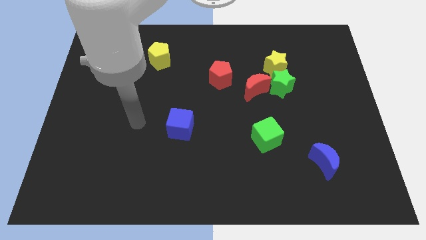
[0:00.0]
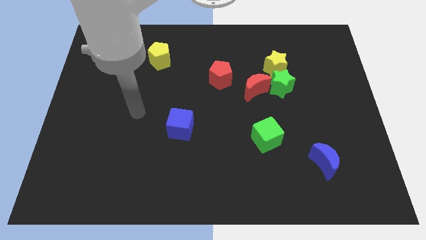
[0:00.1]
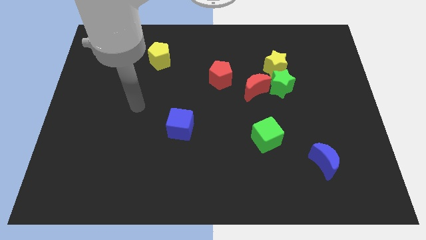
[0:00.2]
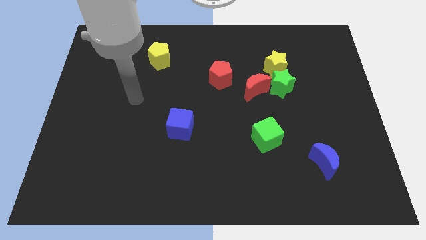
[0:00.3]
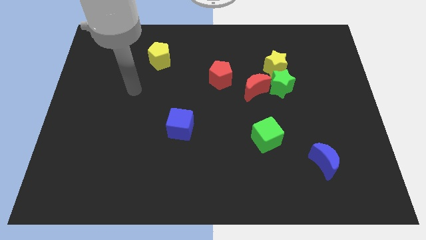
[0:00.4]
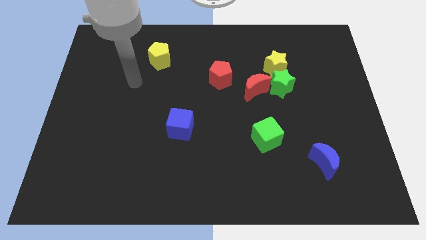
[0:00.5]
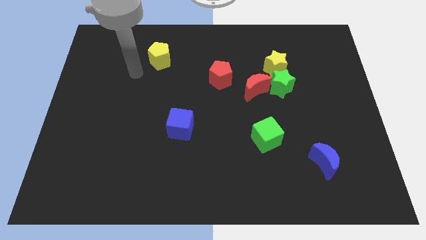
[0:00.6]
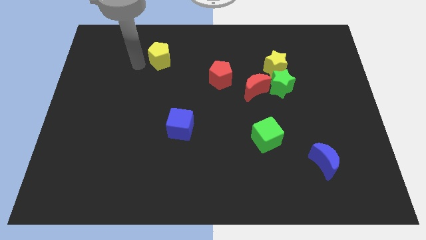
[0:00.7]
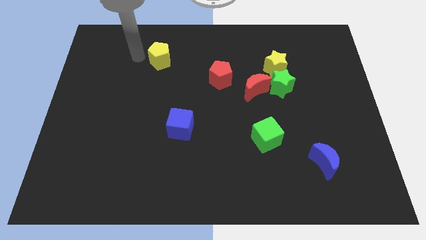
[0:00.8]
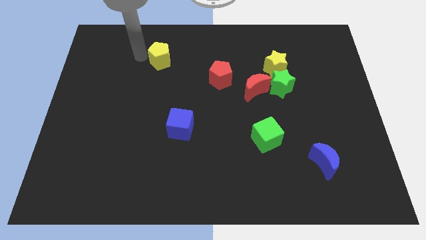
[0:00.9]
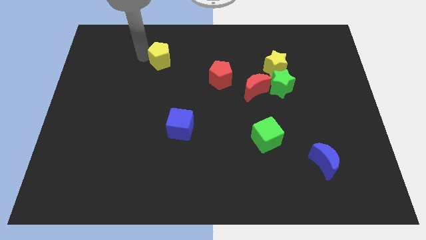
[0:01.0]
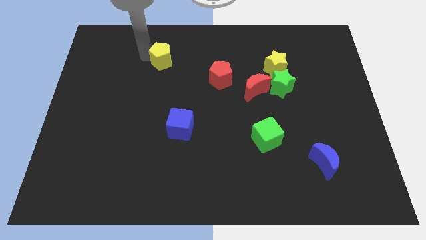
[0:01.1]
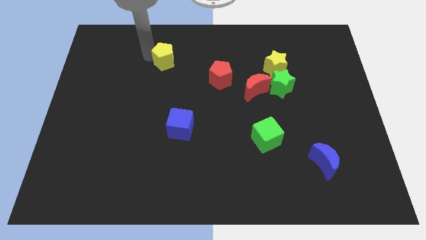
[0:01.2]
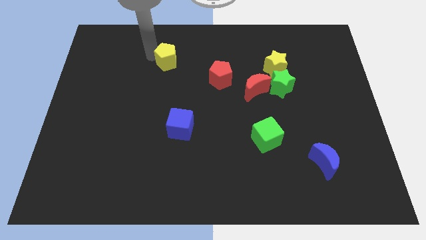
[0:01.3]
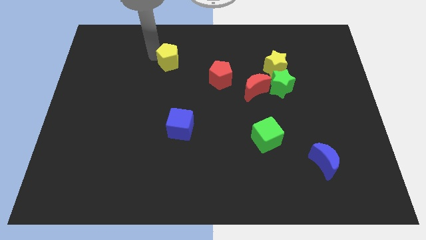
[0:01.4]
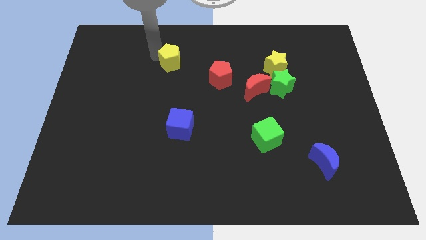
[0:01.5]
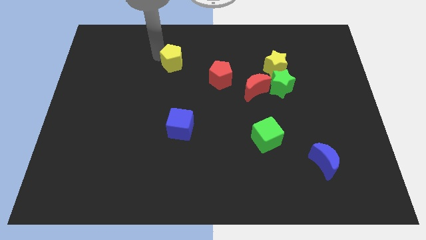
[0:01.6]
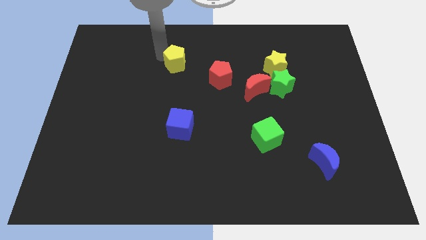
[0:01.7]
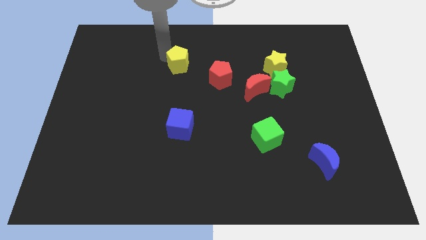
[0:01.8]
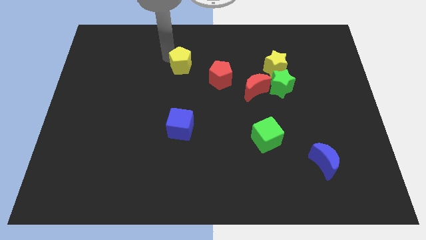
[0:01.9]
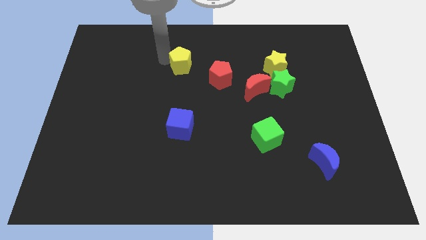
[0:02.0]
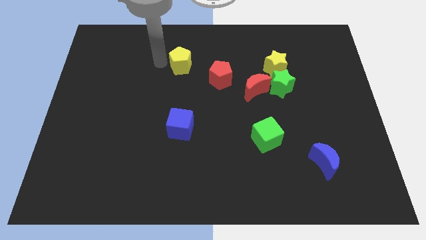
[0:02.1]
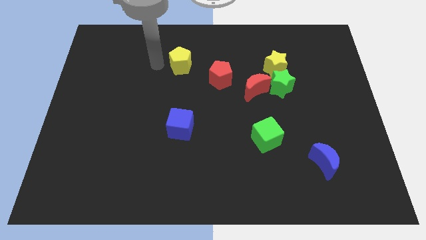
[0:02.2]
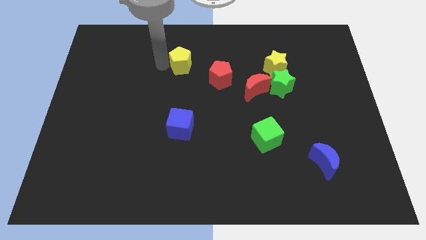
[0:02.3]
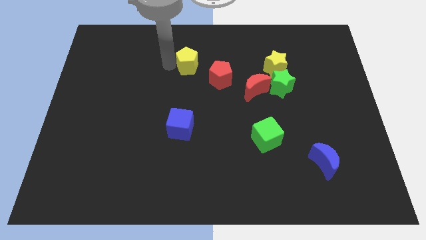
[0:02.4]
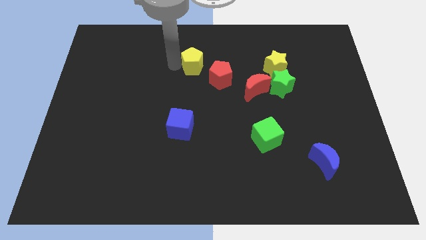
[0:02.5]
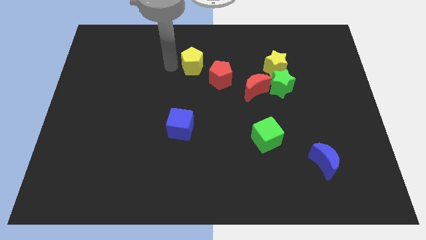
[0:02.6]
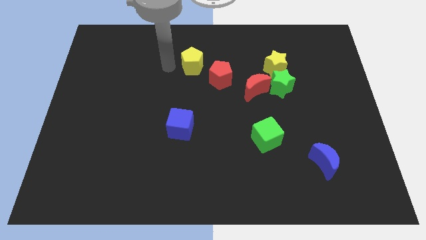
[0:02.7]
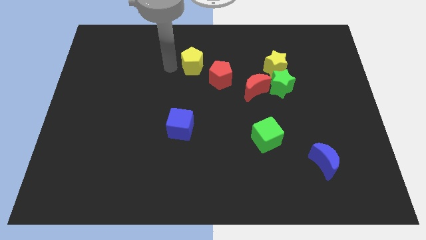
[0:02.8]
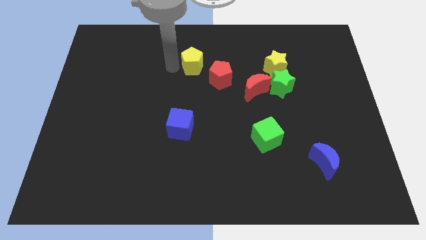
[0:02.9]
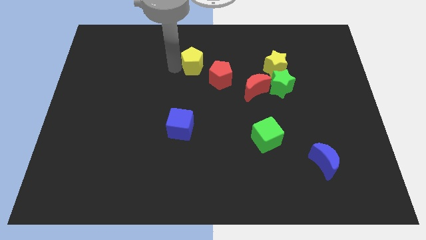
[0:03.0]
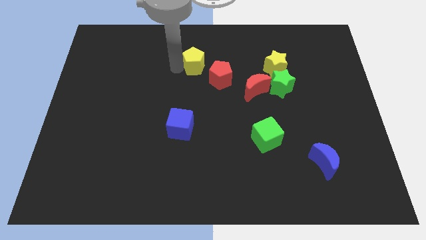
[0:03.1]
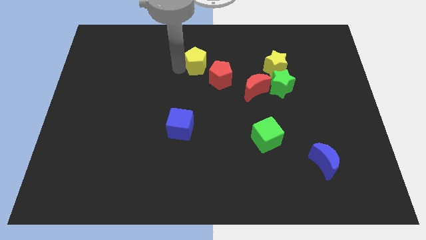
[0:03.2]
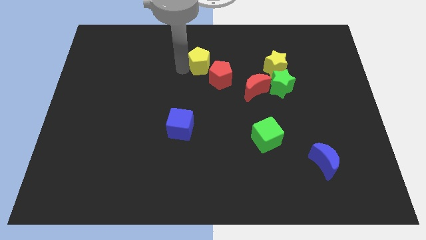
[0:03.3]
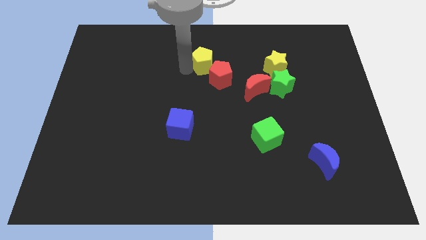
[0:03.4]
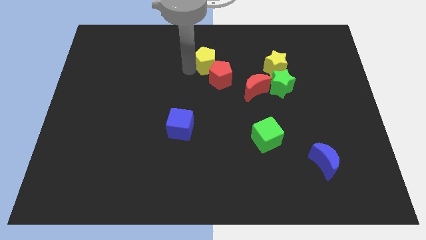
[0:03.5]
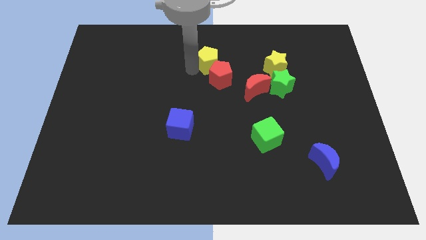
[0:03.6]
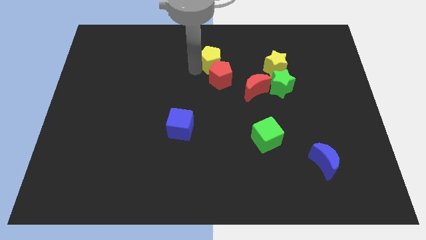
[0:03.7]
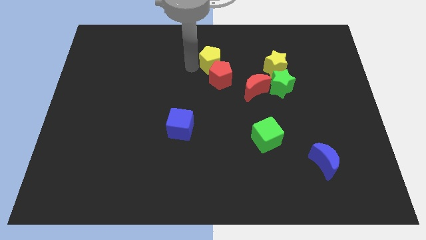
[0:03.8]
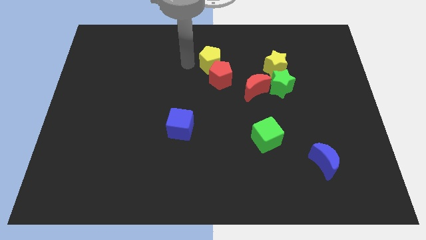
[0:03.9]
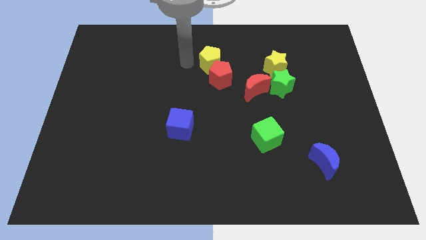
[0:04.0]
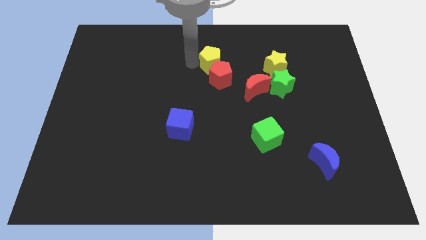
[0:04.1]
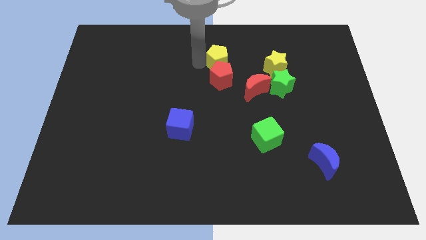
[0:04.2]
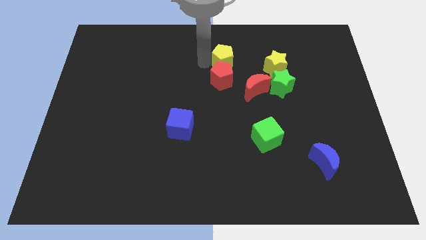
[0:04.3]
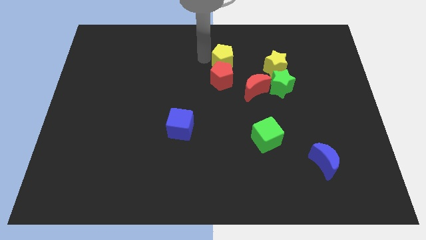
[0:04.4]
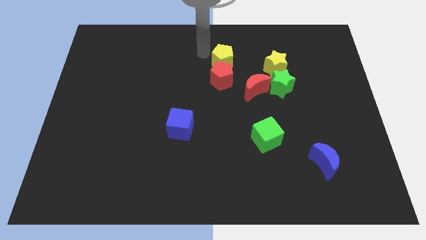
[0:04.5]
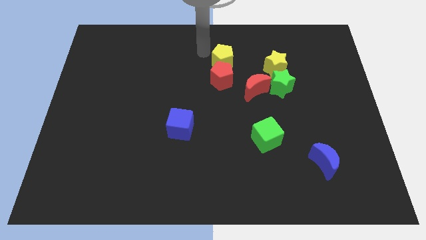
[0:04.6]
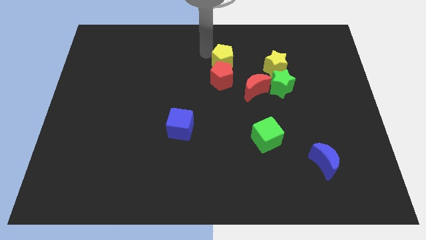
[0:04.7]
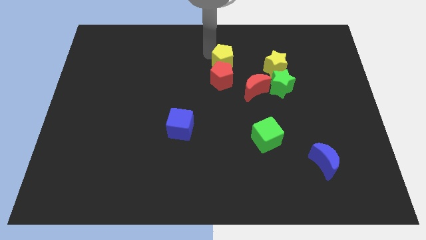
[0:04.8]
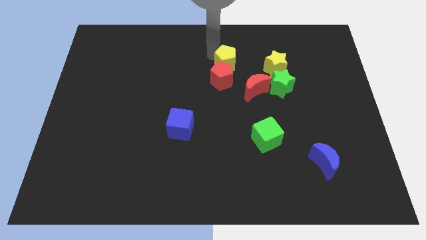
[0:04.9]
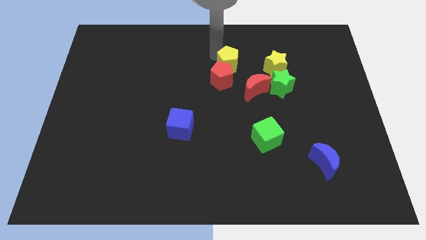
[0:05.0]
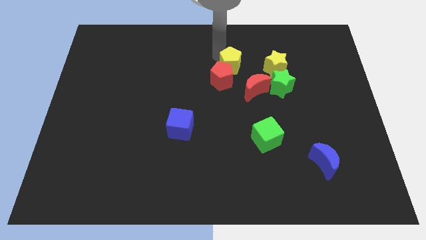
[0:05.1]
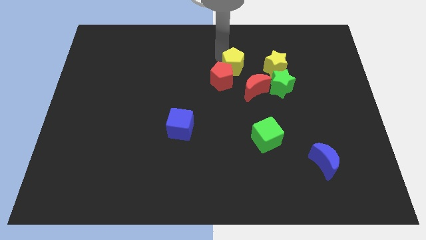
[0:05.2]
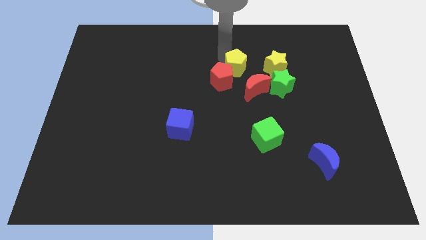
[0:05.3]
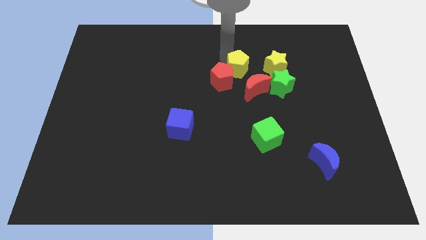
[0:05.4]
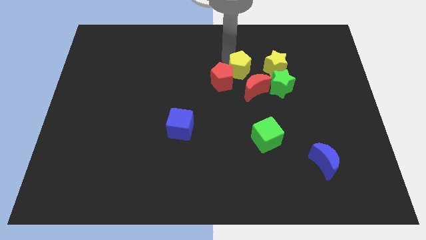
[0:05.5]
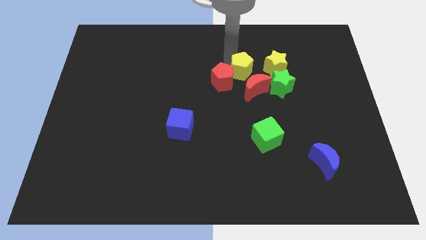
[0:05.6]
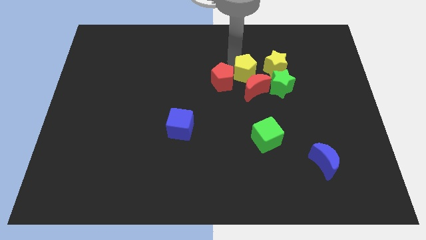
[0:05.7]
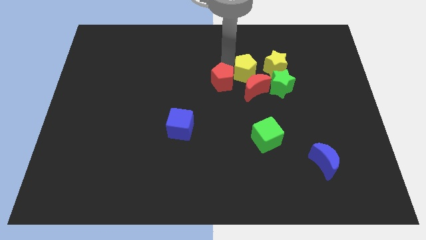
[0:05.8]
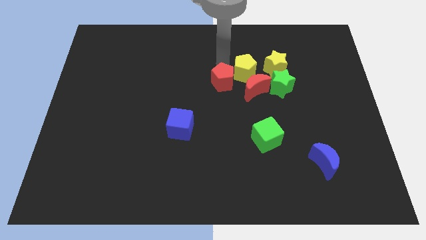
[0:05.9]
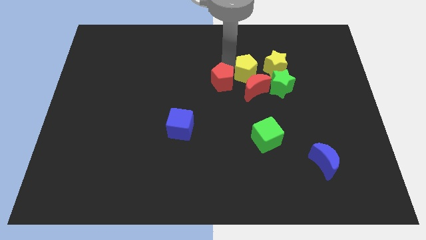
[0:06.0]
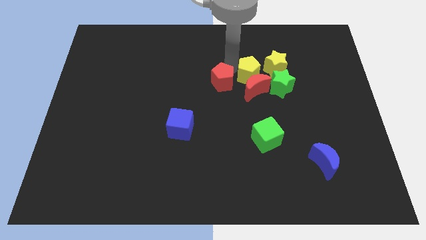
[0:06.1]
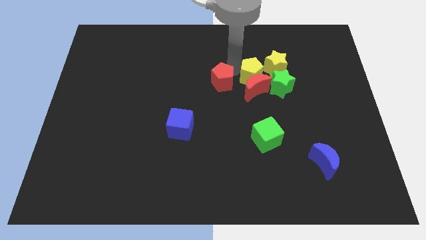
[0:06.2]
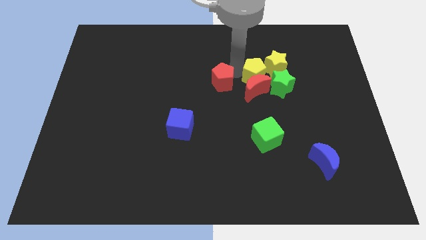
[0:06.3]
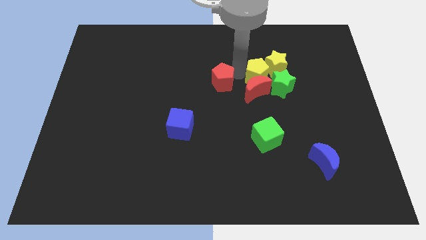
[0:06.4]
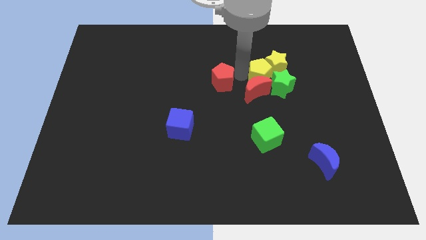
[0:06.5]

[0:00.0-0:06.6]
slide the yellow pentagon to the green star

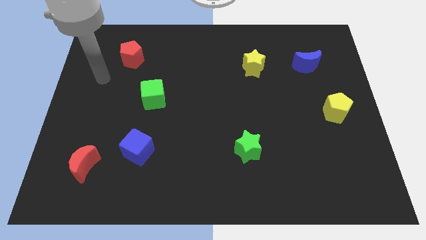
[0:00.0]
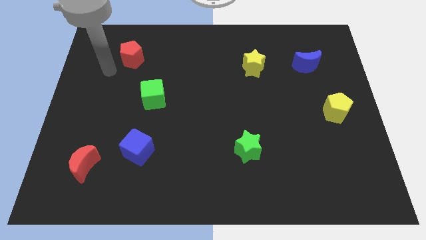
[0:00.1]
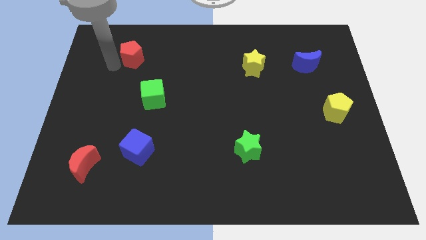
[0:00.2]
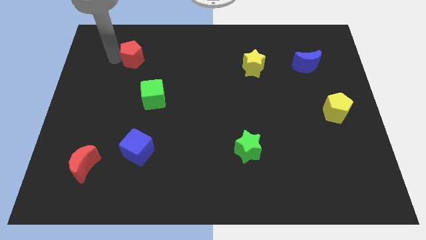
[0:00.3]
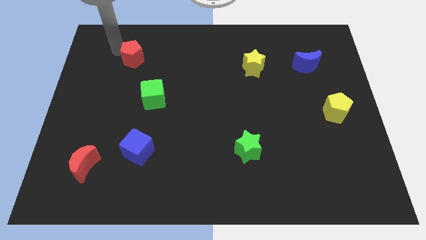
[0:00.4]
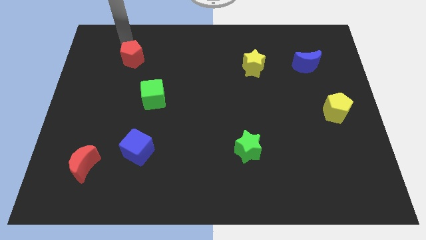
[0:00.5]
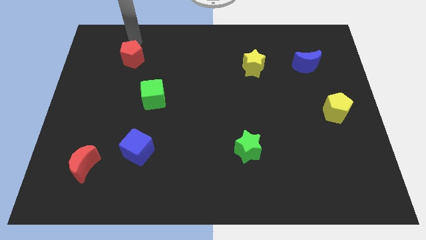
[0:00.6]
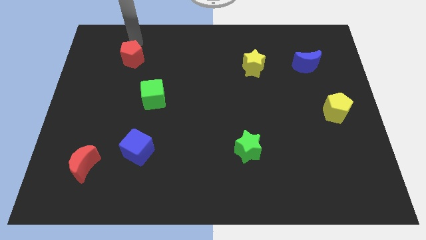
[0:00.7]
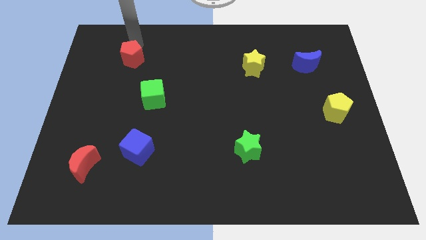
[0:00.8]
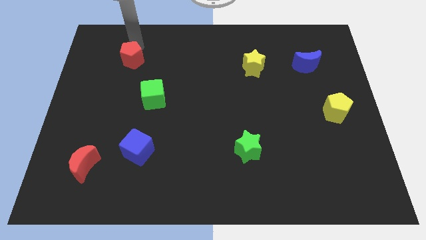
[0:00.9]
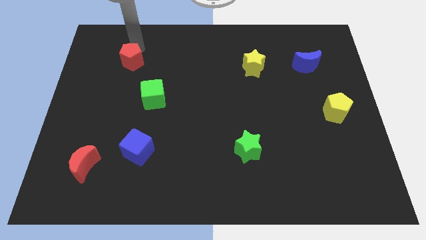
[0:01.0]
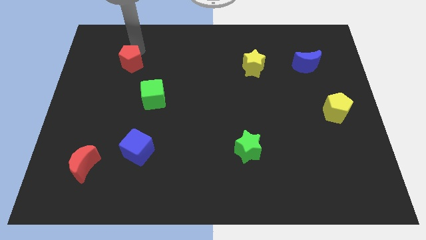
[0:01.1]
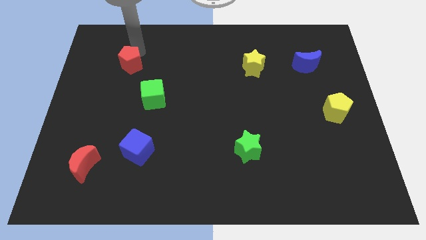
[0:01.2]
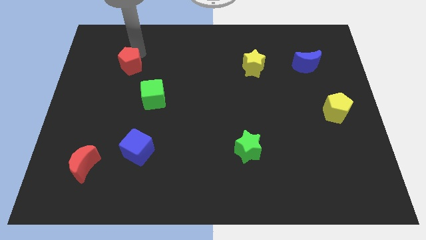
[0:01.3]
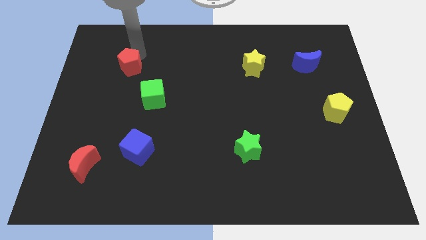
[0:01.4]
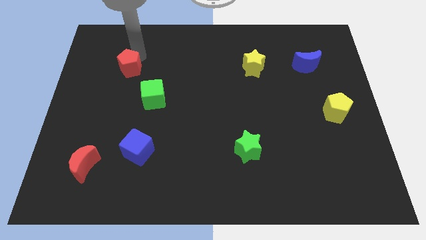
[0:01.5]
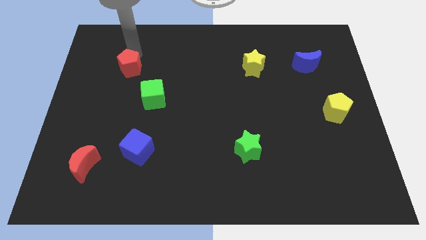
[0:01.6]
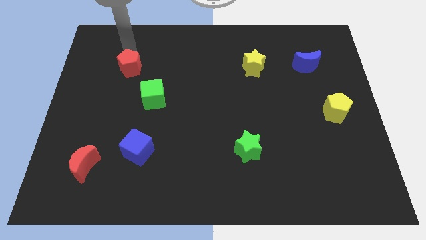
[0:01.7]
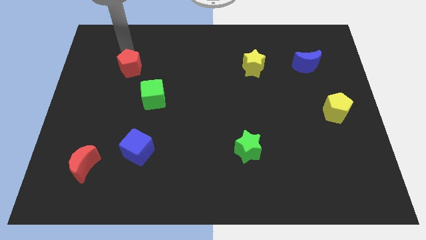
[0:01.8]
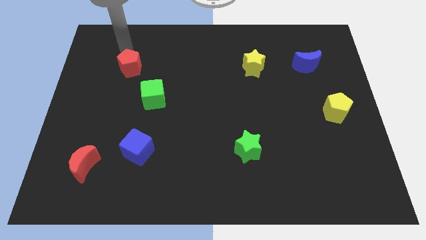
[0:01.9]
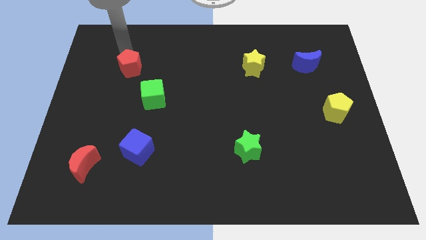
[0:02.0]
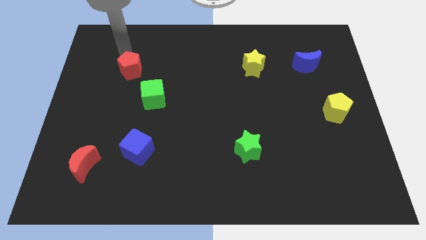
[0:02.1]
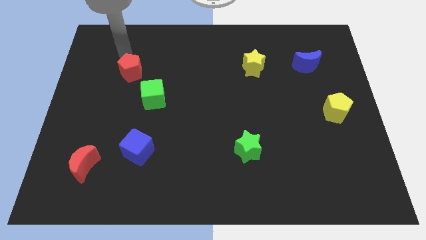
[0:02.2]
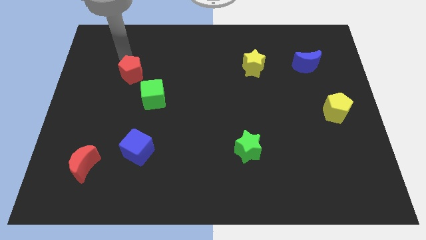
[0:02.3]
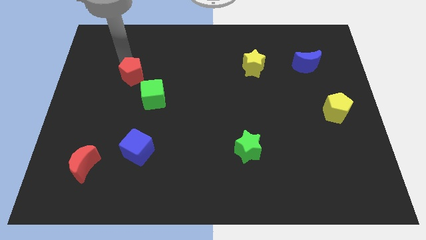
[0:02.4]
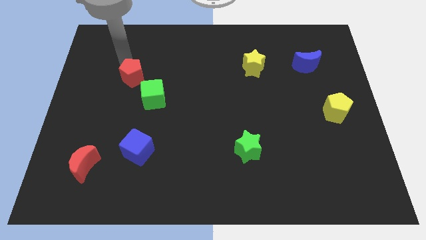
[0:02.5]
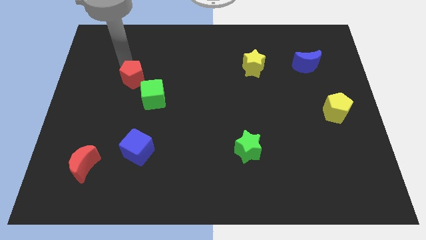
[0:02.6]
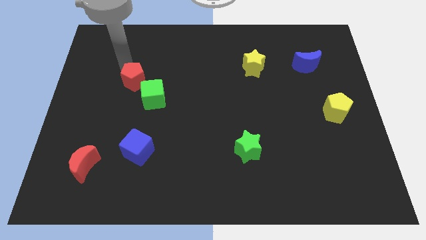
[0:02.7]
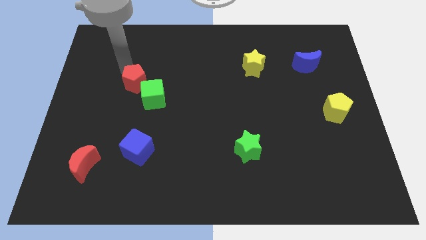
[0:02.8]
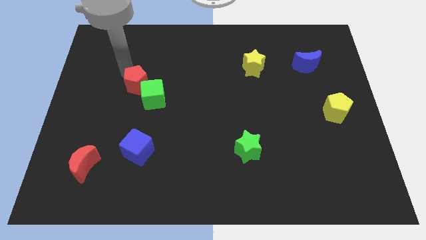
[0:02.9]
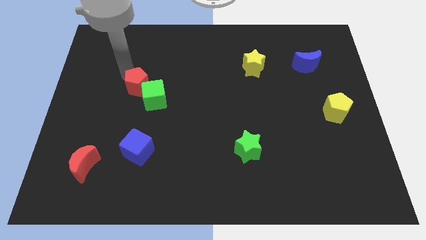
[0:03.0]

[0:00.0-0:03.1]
slide the red pentagon to the green cube
